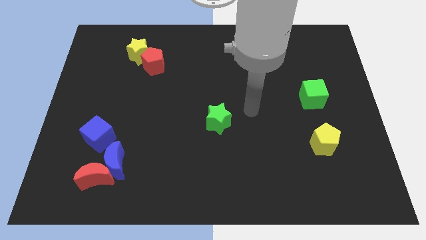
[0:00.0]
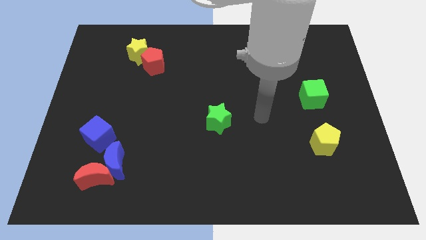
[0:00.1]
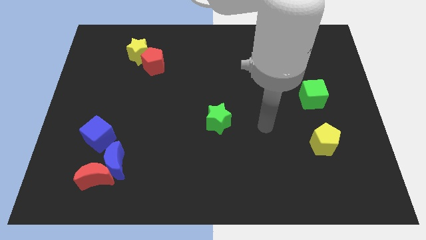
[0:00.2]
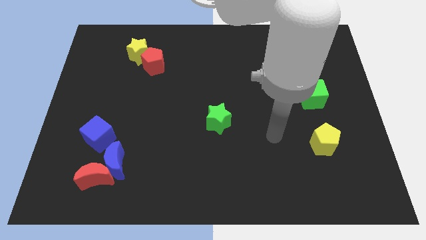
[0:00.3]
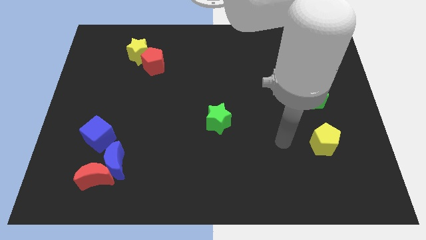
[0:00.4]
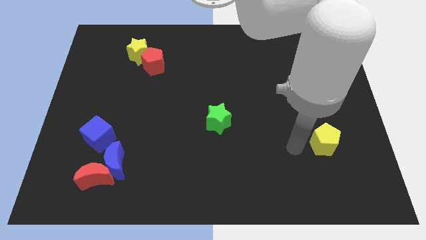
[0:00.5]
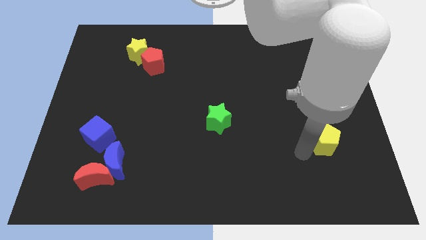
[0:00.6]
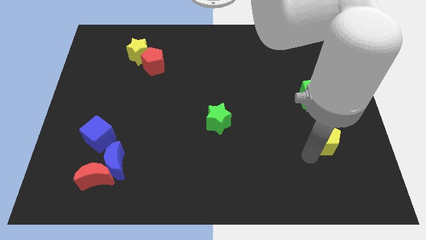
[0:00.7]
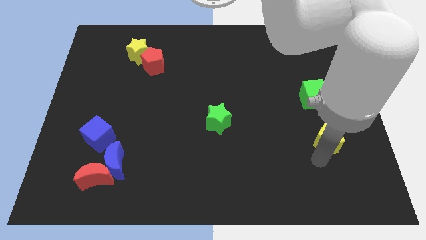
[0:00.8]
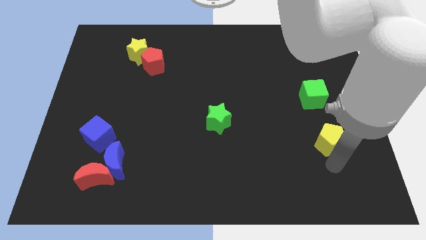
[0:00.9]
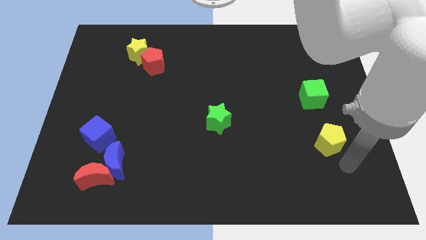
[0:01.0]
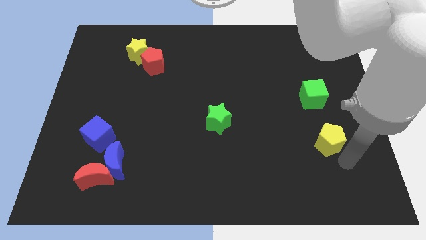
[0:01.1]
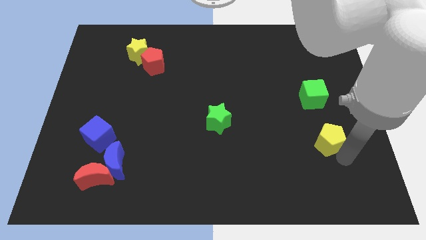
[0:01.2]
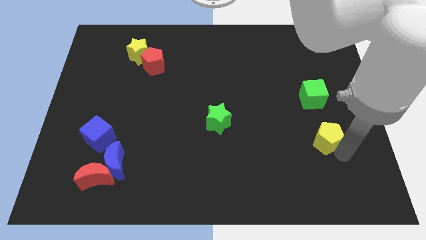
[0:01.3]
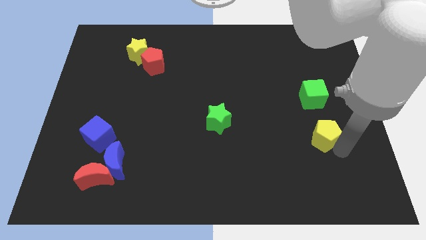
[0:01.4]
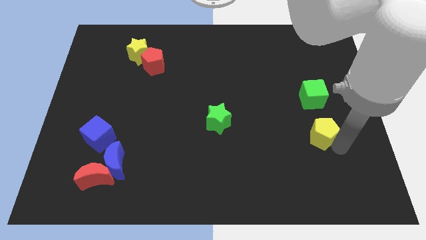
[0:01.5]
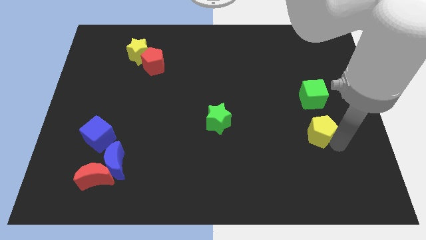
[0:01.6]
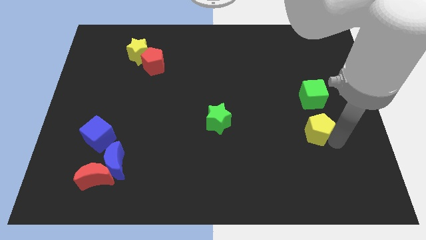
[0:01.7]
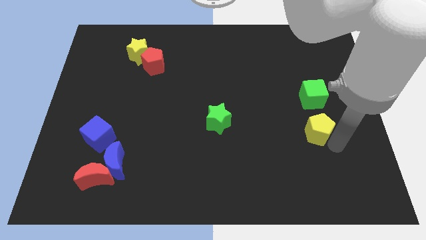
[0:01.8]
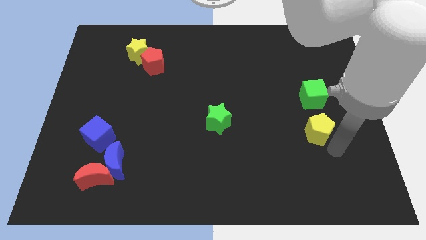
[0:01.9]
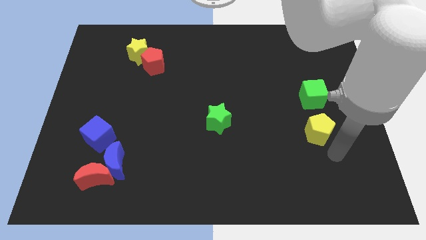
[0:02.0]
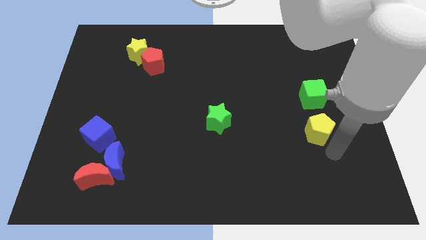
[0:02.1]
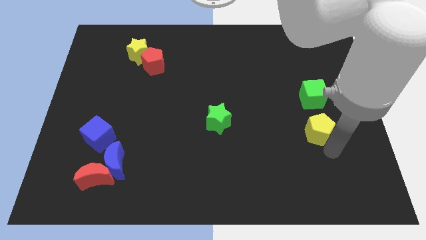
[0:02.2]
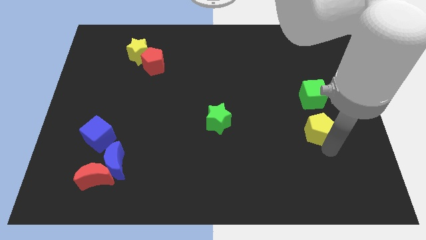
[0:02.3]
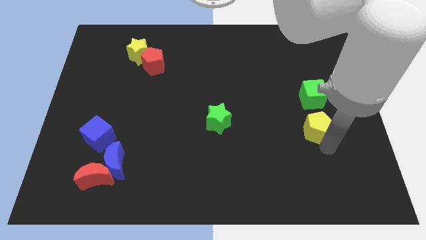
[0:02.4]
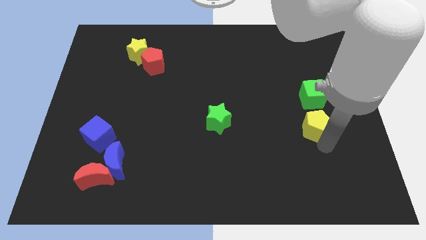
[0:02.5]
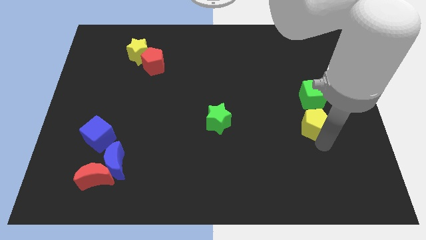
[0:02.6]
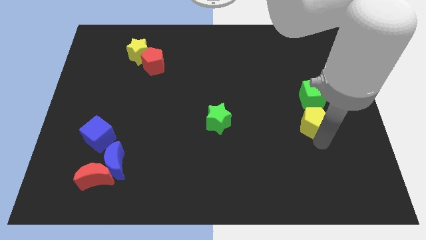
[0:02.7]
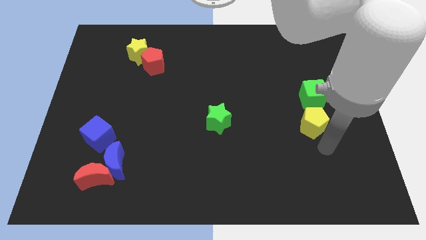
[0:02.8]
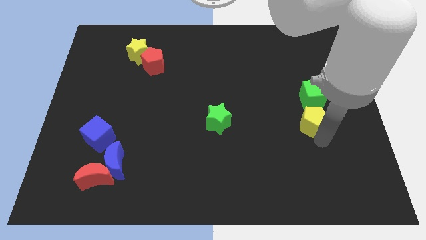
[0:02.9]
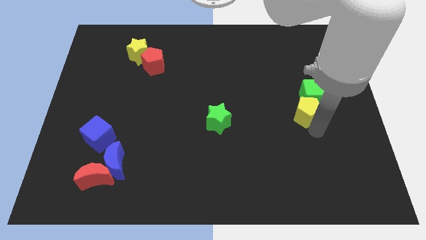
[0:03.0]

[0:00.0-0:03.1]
slightly move the yellow pentagon up

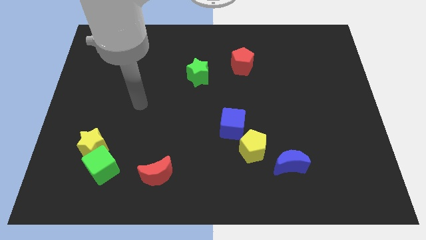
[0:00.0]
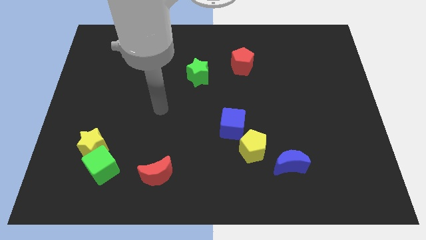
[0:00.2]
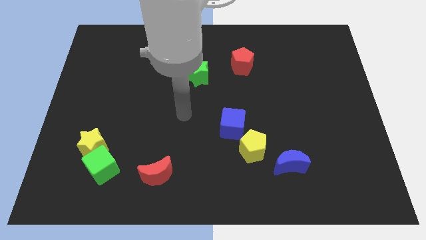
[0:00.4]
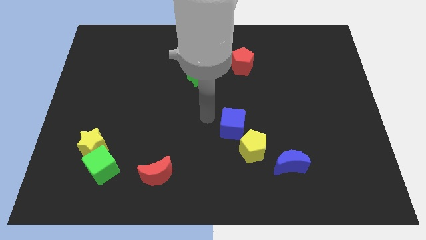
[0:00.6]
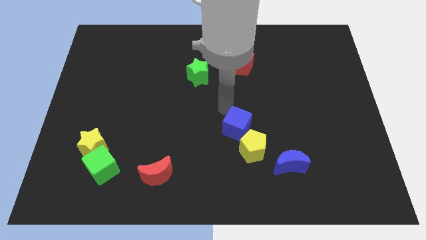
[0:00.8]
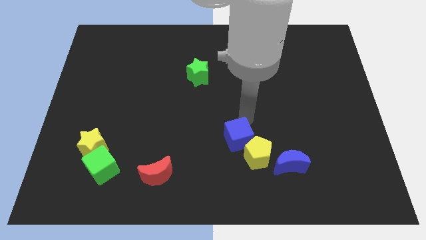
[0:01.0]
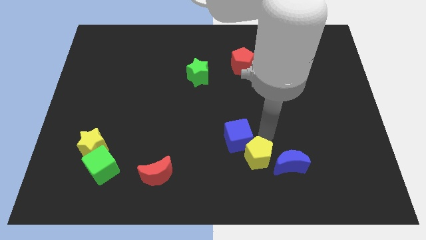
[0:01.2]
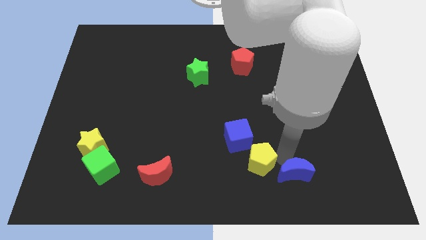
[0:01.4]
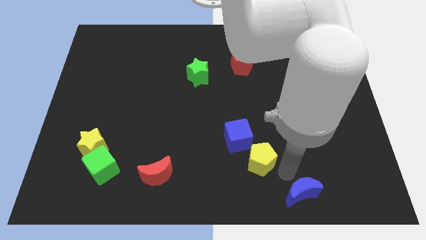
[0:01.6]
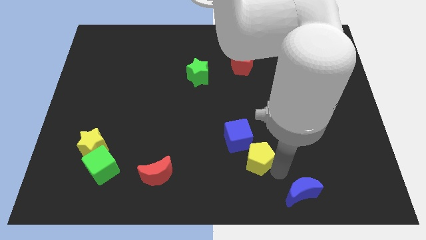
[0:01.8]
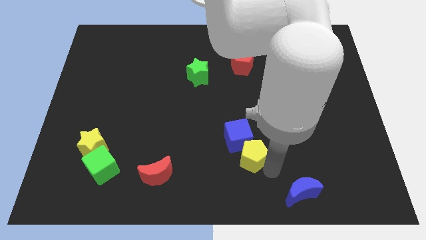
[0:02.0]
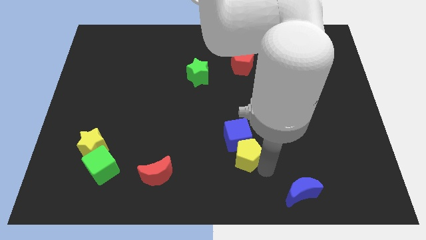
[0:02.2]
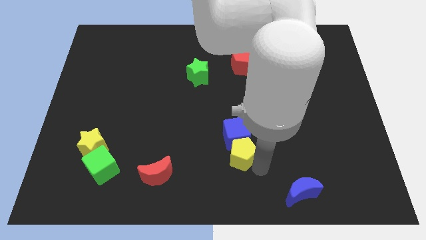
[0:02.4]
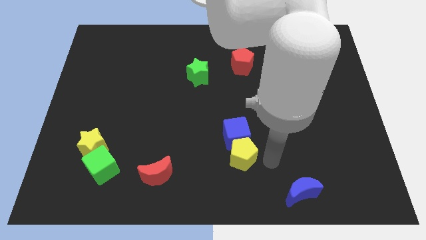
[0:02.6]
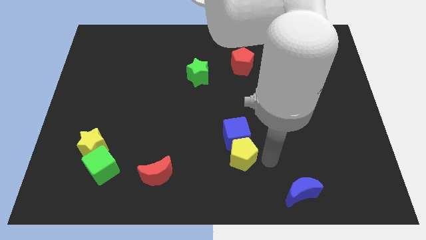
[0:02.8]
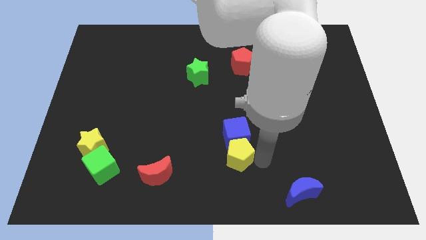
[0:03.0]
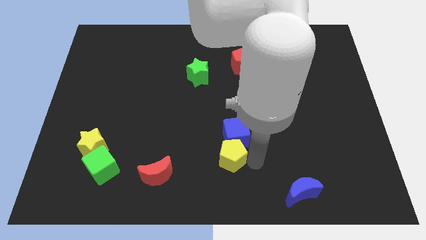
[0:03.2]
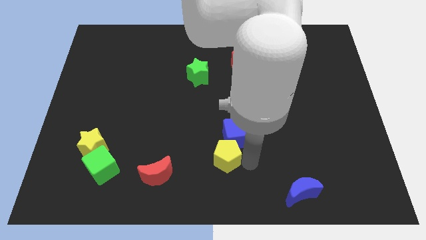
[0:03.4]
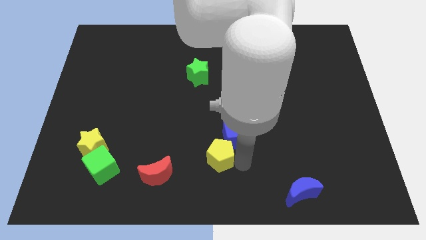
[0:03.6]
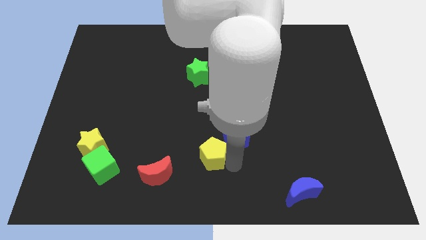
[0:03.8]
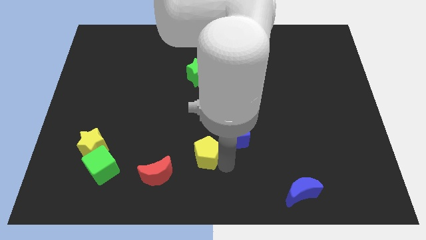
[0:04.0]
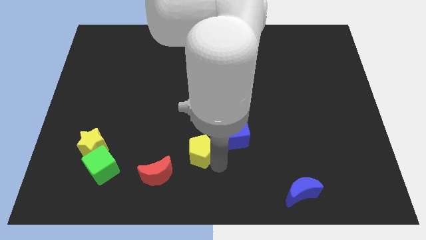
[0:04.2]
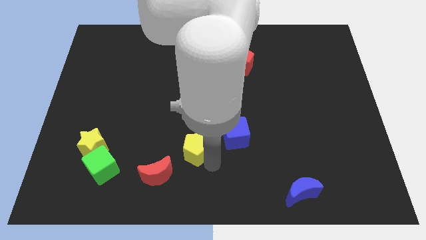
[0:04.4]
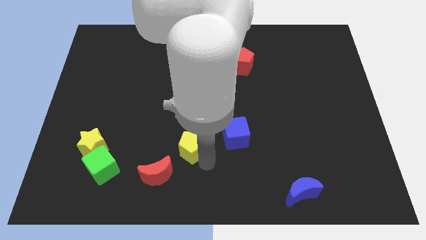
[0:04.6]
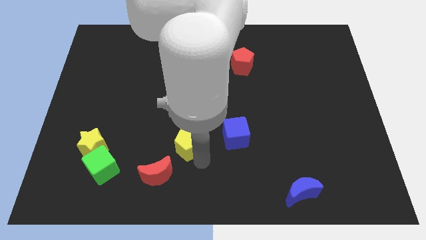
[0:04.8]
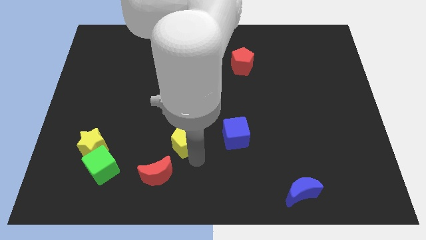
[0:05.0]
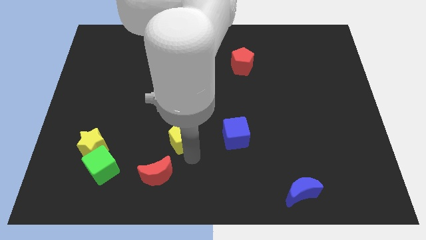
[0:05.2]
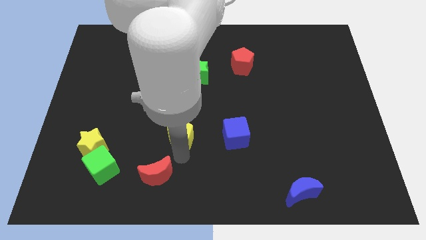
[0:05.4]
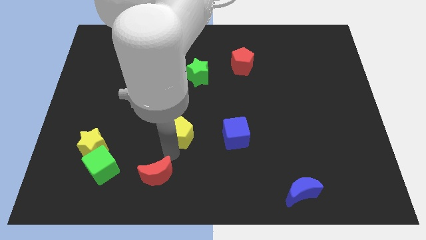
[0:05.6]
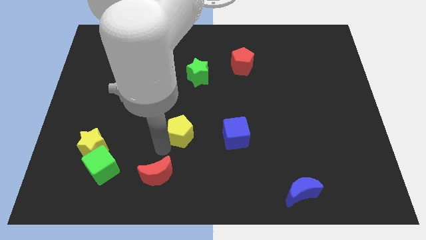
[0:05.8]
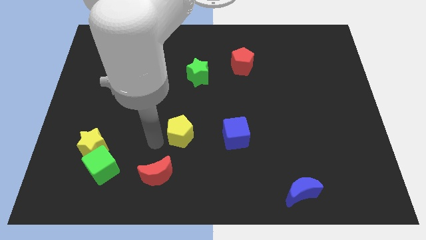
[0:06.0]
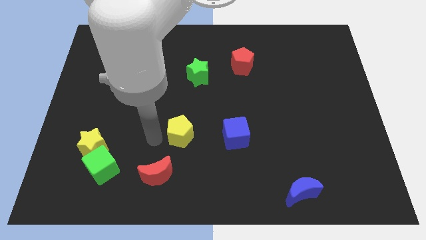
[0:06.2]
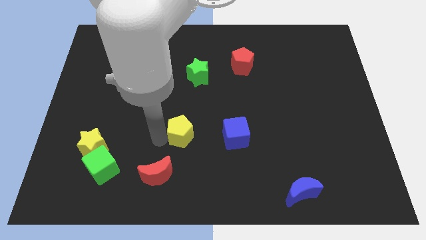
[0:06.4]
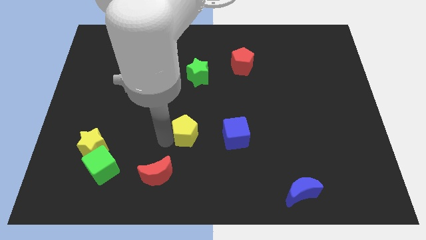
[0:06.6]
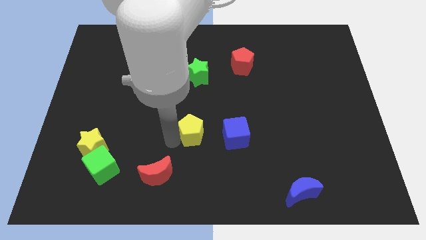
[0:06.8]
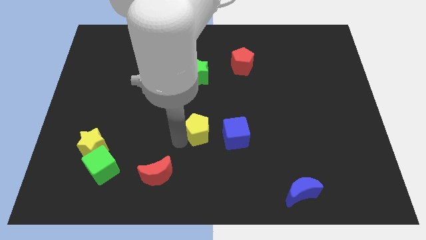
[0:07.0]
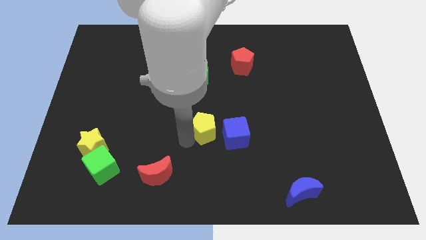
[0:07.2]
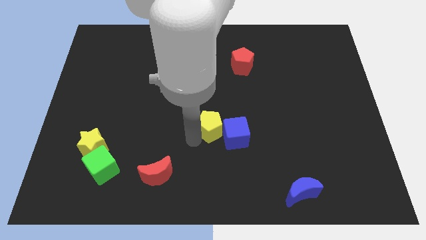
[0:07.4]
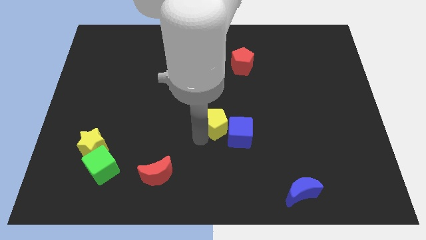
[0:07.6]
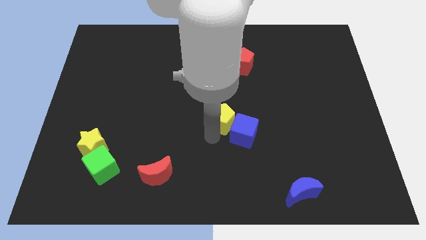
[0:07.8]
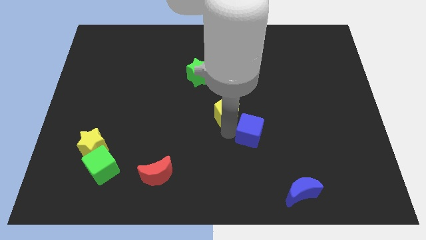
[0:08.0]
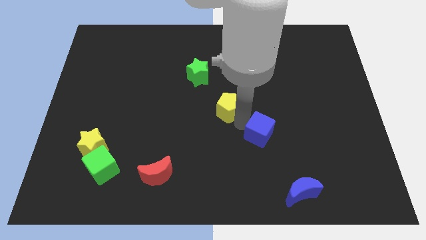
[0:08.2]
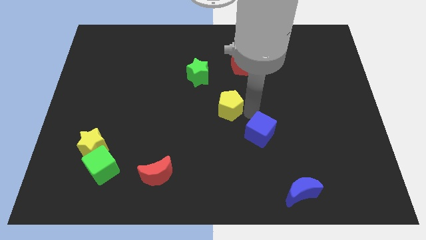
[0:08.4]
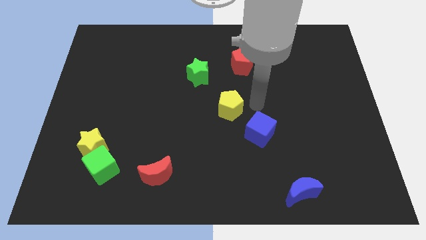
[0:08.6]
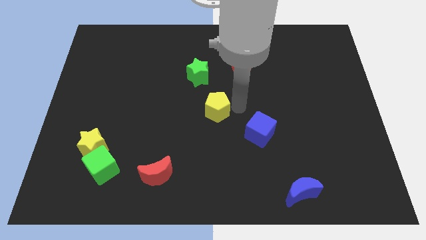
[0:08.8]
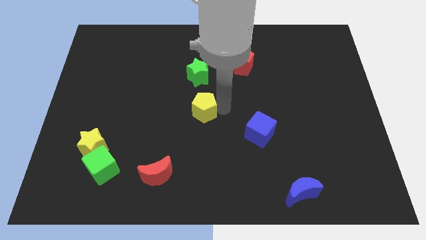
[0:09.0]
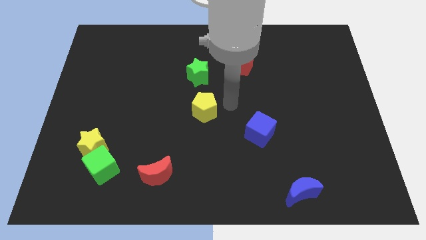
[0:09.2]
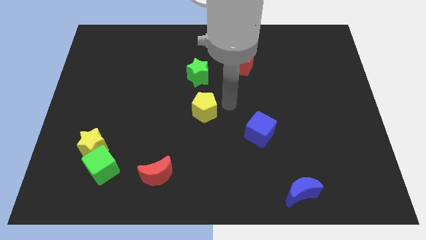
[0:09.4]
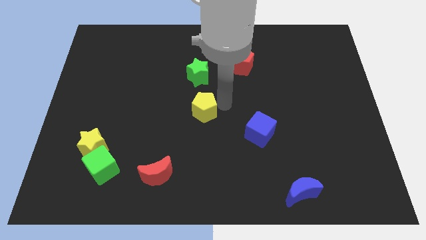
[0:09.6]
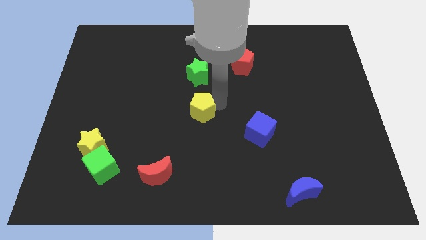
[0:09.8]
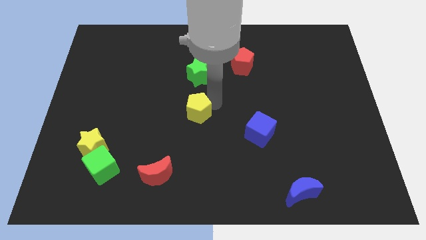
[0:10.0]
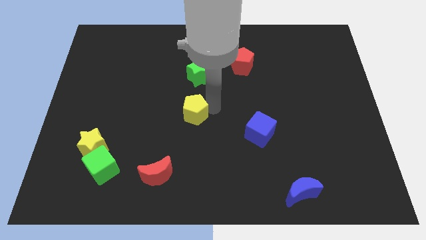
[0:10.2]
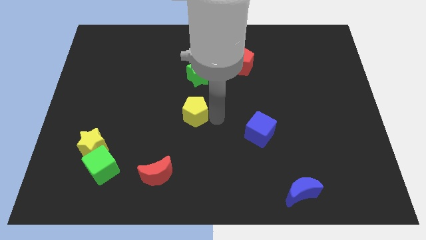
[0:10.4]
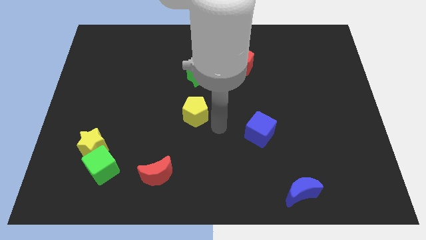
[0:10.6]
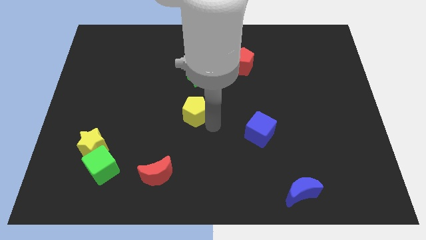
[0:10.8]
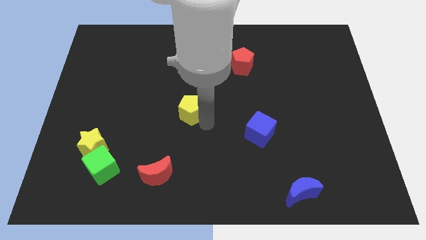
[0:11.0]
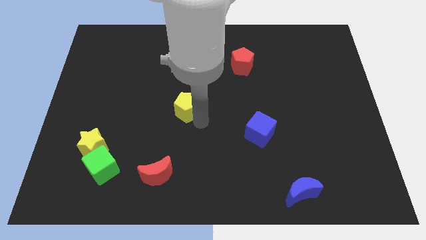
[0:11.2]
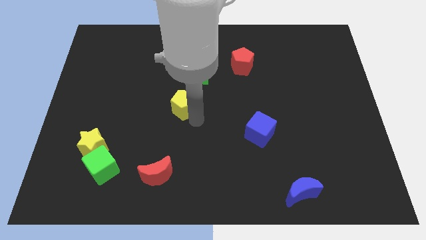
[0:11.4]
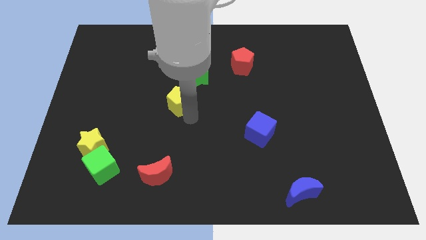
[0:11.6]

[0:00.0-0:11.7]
move the yellow pentagon diagonally up and to the left
